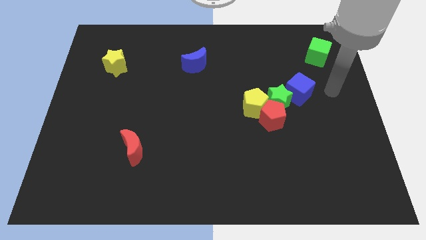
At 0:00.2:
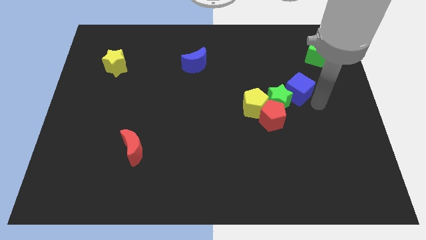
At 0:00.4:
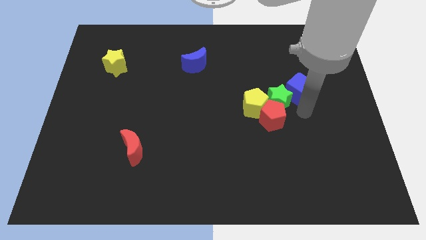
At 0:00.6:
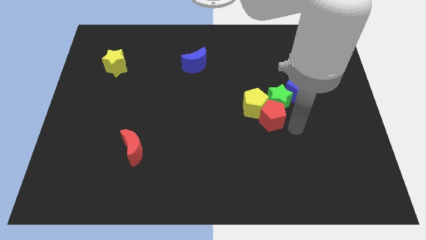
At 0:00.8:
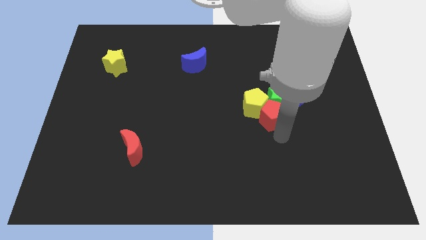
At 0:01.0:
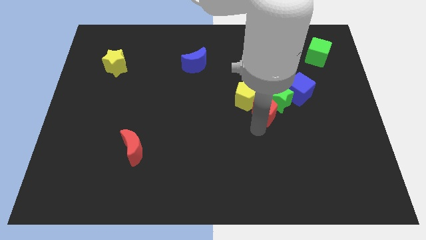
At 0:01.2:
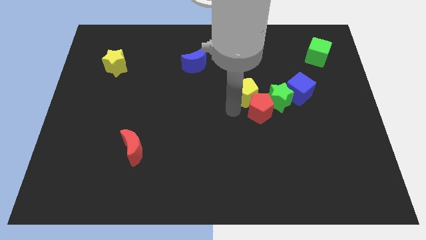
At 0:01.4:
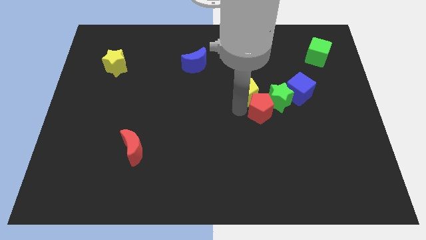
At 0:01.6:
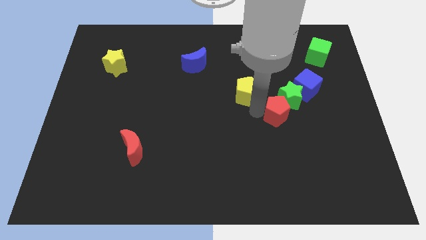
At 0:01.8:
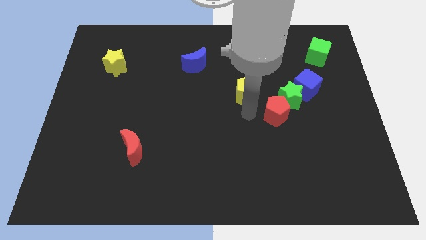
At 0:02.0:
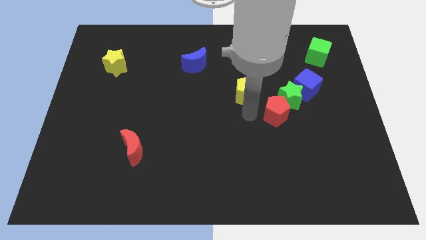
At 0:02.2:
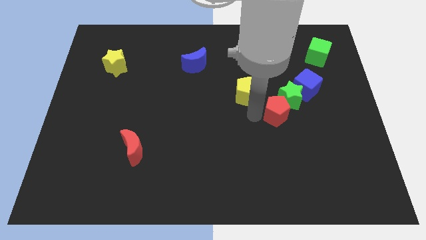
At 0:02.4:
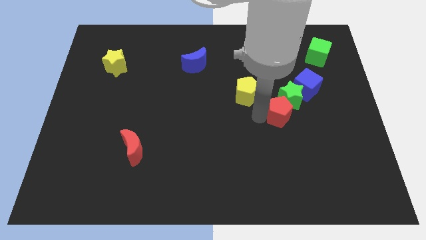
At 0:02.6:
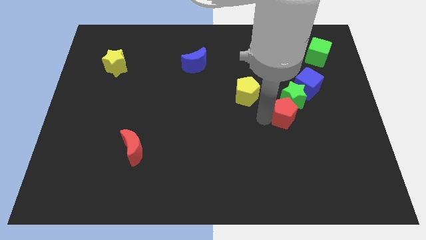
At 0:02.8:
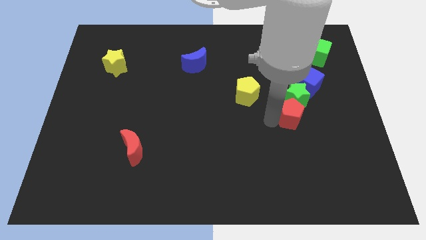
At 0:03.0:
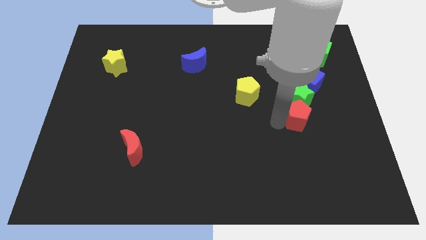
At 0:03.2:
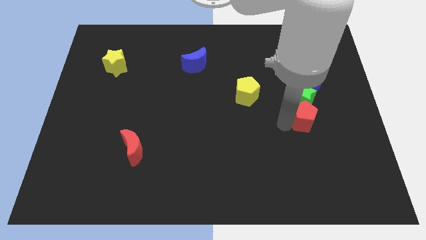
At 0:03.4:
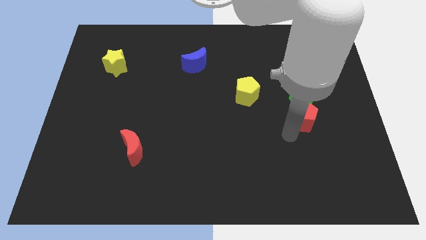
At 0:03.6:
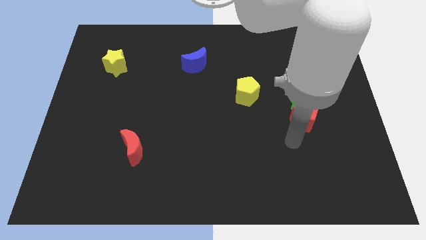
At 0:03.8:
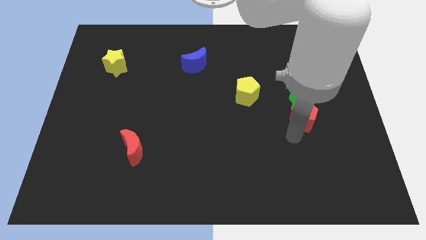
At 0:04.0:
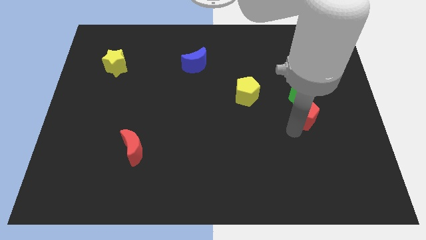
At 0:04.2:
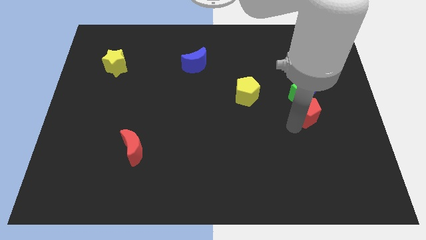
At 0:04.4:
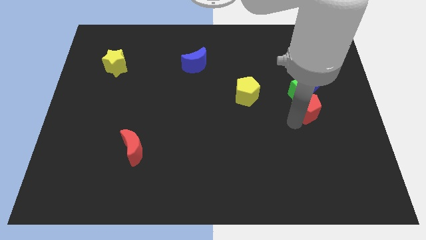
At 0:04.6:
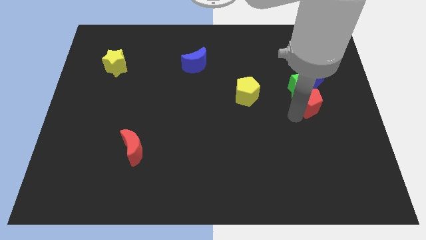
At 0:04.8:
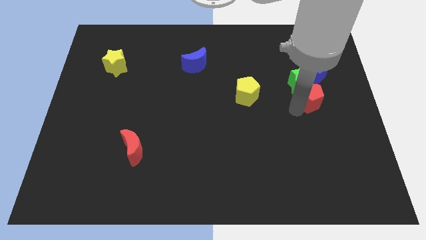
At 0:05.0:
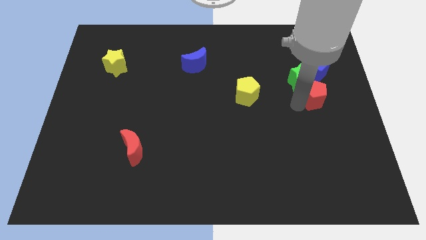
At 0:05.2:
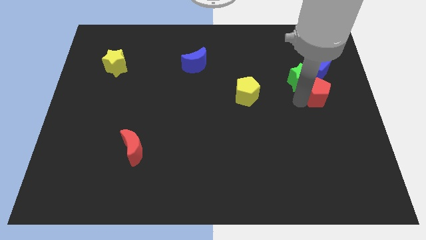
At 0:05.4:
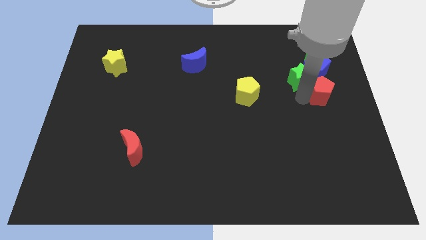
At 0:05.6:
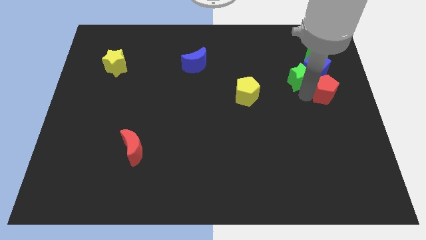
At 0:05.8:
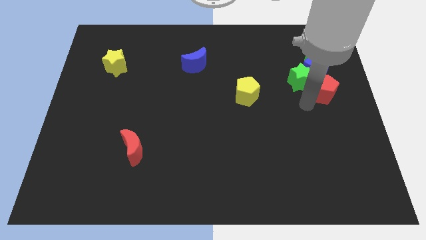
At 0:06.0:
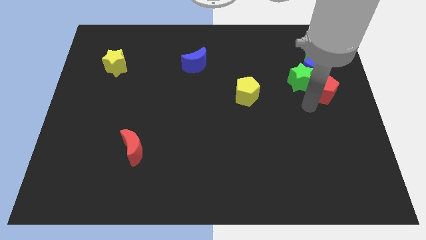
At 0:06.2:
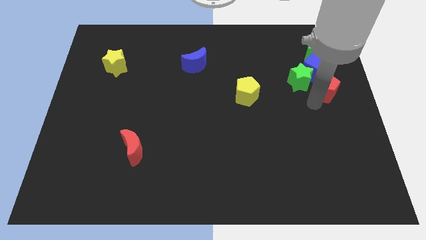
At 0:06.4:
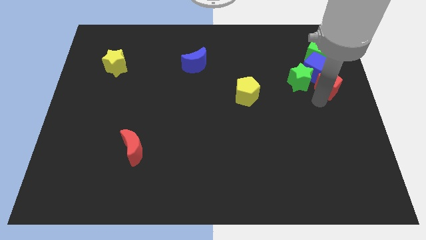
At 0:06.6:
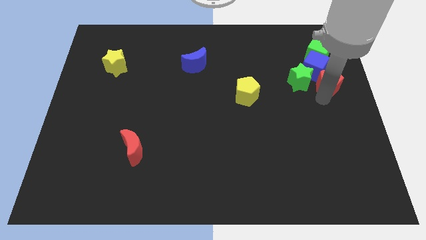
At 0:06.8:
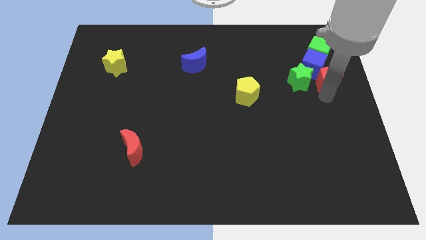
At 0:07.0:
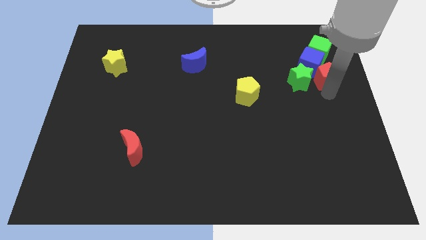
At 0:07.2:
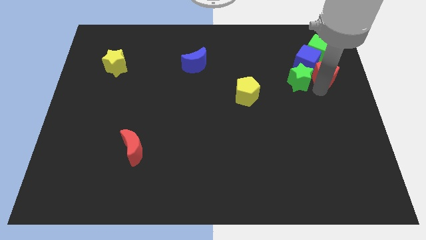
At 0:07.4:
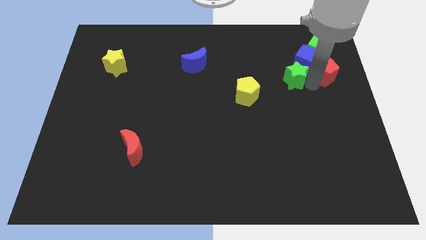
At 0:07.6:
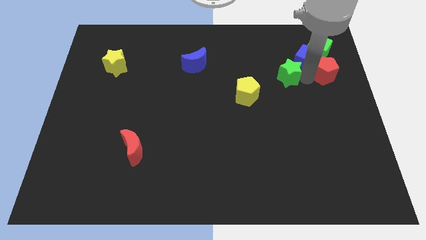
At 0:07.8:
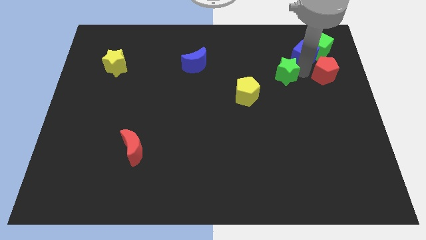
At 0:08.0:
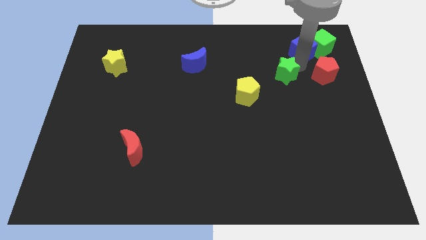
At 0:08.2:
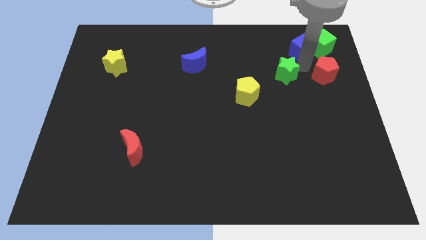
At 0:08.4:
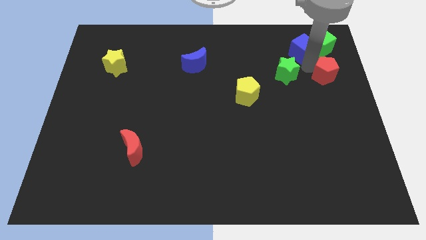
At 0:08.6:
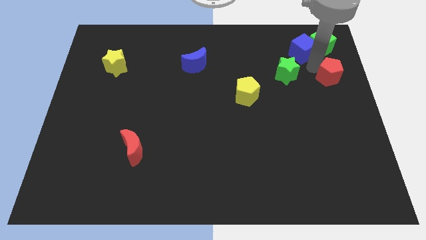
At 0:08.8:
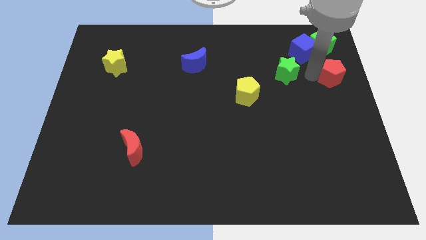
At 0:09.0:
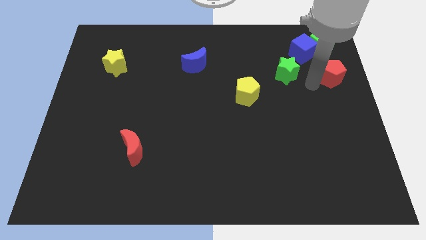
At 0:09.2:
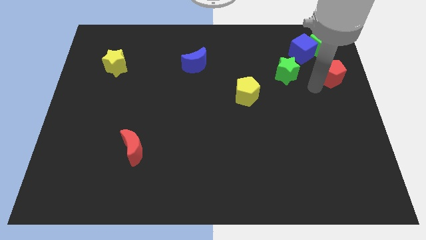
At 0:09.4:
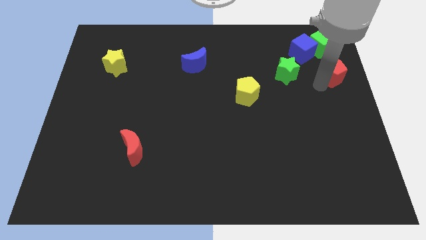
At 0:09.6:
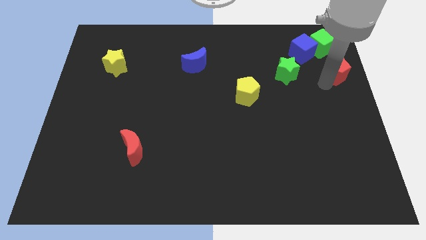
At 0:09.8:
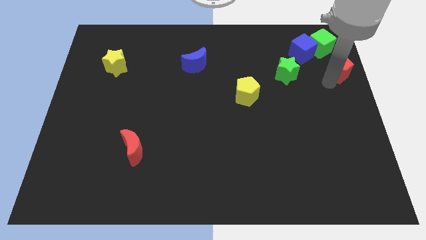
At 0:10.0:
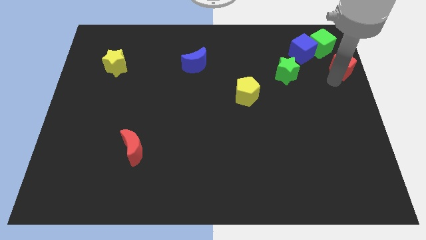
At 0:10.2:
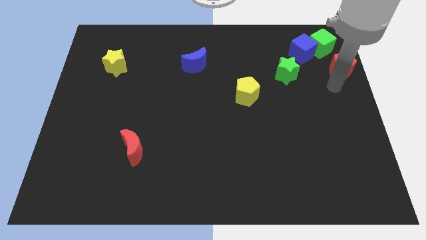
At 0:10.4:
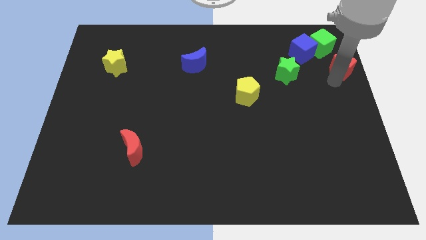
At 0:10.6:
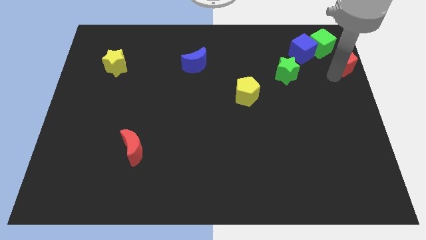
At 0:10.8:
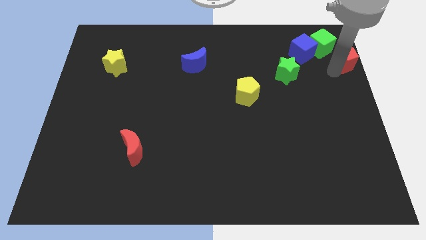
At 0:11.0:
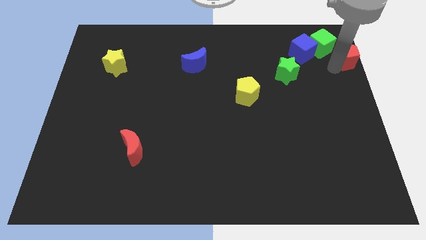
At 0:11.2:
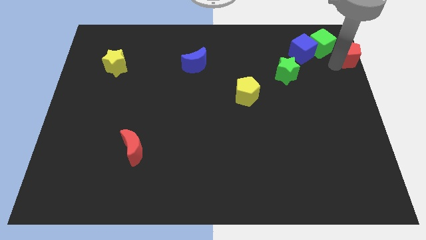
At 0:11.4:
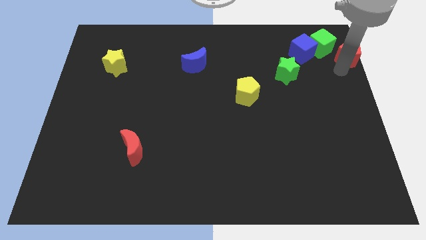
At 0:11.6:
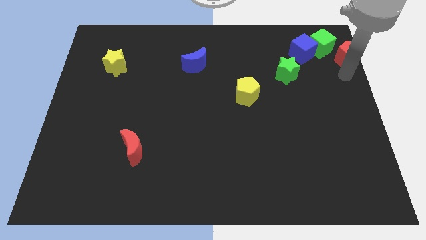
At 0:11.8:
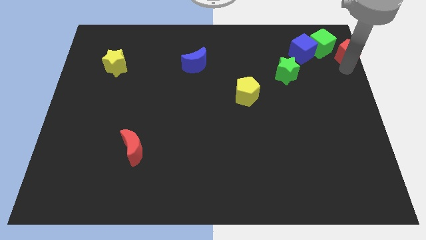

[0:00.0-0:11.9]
put the red pentagon to the upper right corner

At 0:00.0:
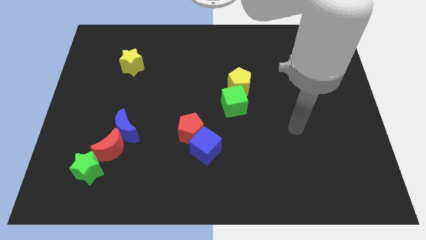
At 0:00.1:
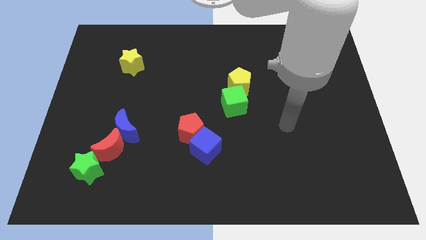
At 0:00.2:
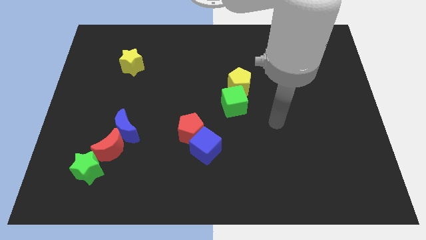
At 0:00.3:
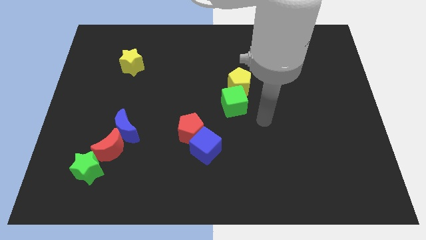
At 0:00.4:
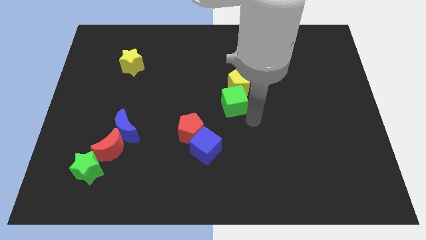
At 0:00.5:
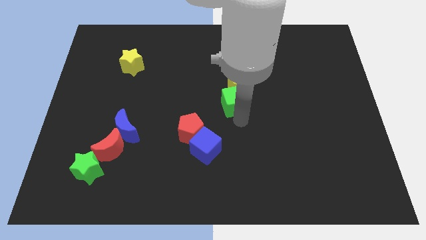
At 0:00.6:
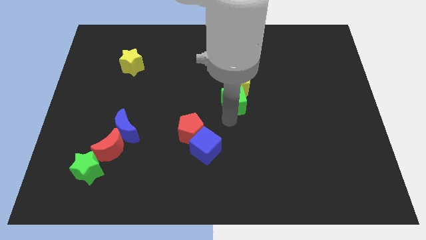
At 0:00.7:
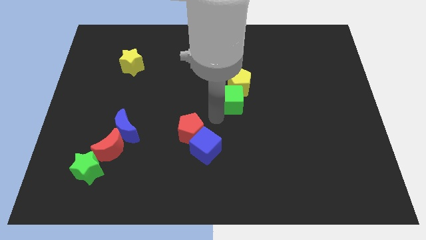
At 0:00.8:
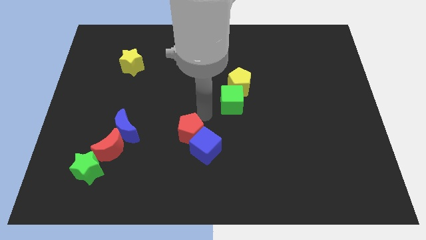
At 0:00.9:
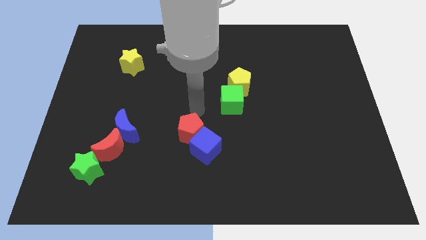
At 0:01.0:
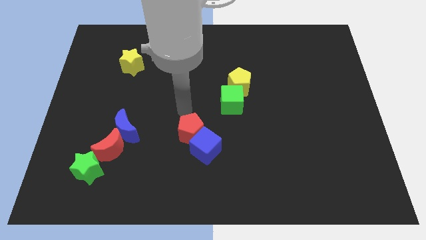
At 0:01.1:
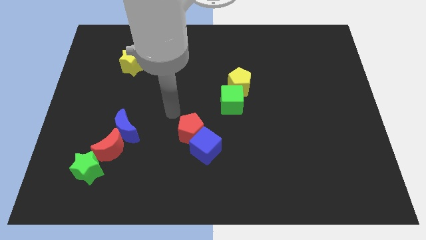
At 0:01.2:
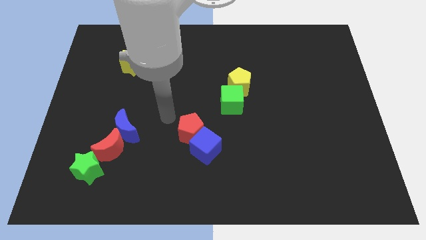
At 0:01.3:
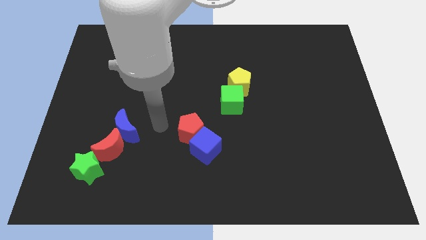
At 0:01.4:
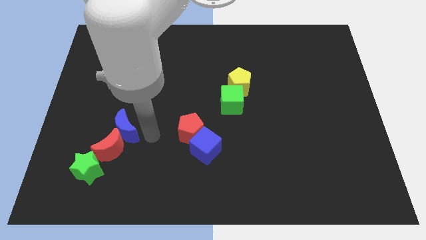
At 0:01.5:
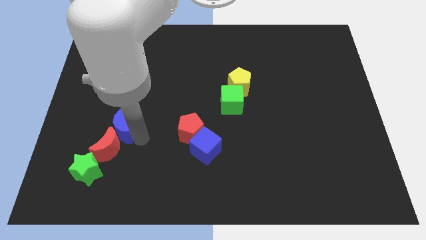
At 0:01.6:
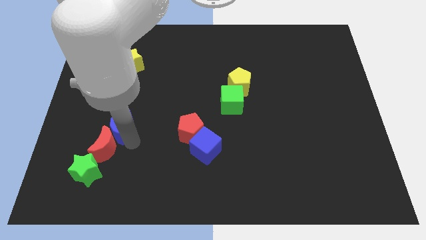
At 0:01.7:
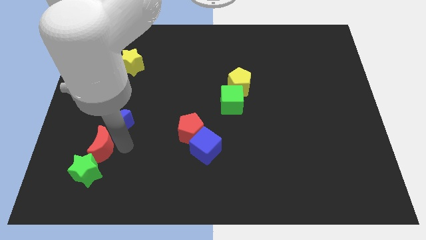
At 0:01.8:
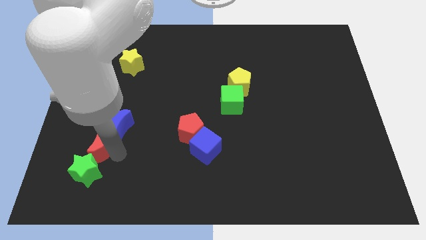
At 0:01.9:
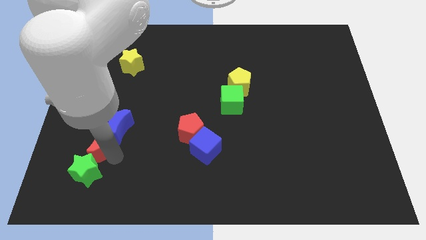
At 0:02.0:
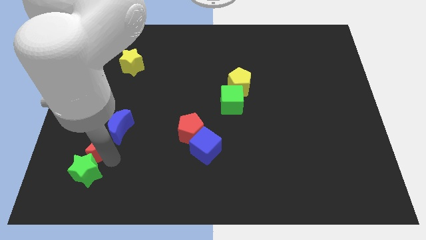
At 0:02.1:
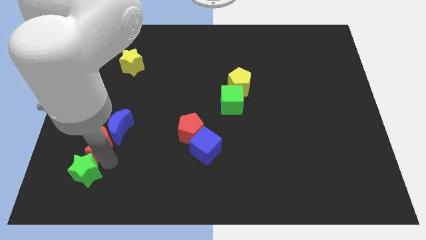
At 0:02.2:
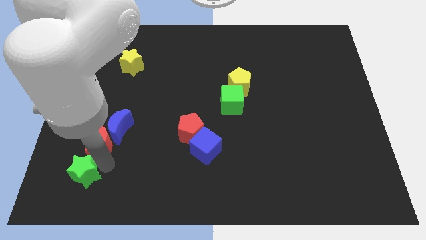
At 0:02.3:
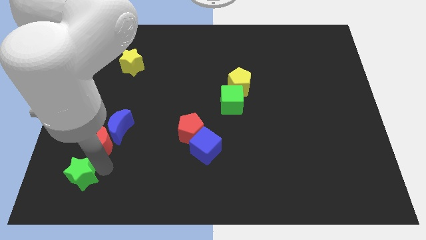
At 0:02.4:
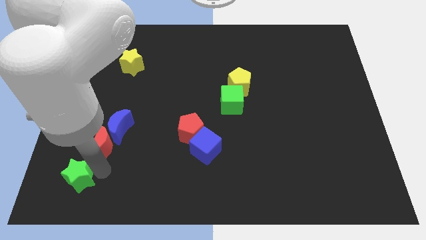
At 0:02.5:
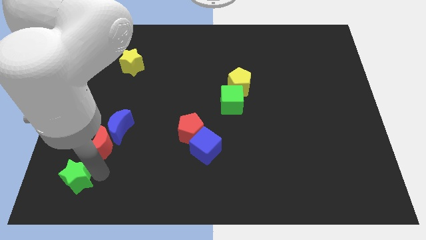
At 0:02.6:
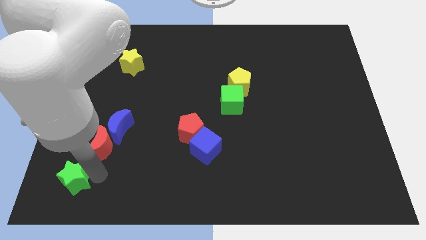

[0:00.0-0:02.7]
move the green star to the bottom left
